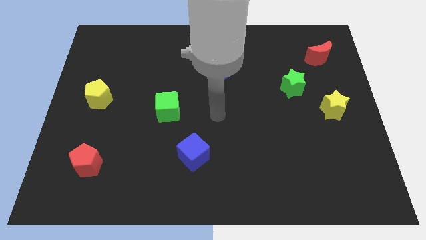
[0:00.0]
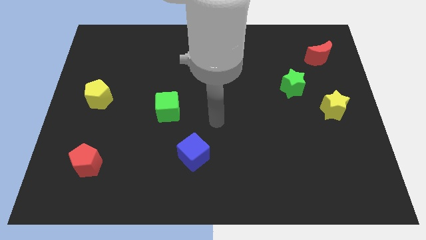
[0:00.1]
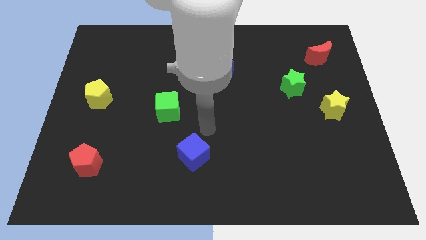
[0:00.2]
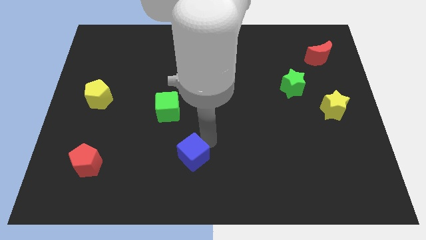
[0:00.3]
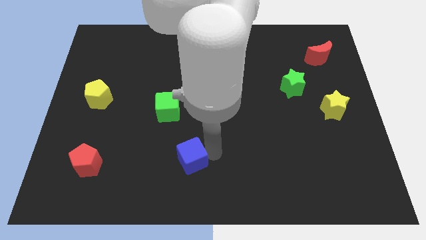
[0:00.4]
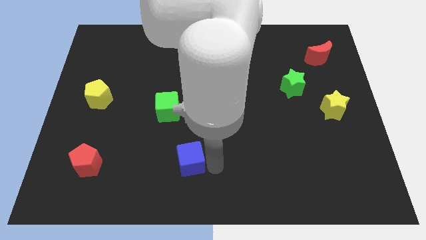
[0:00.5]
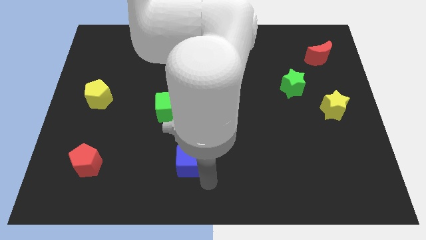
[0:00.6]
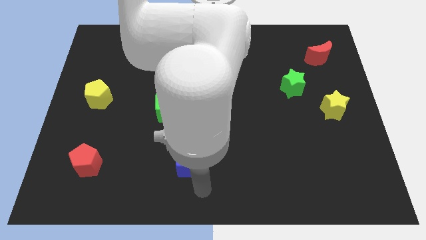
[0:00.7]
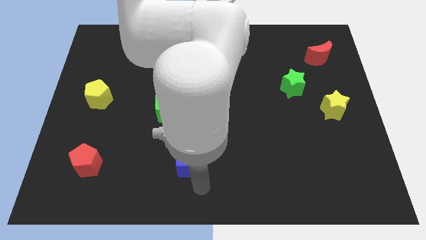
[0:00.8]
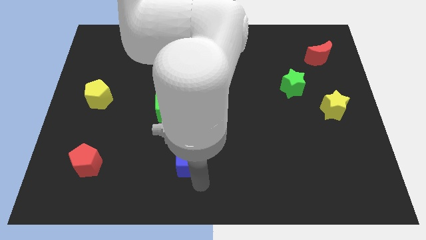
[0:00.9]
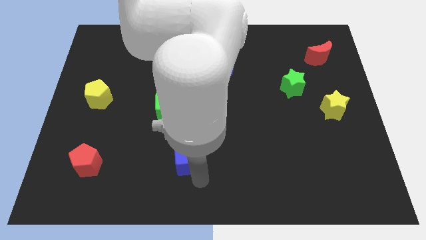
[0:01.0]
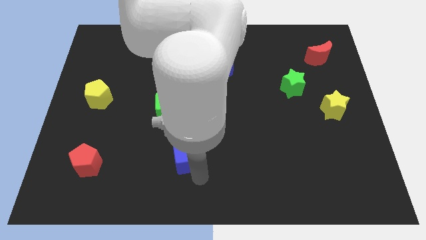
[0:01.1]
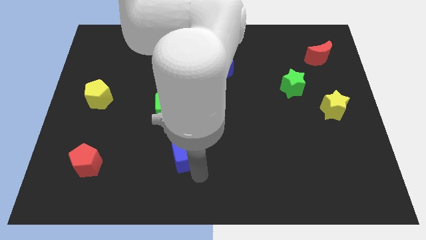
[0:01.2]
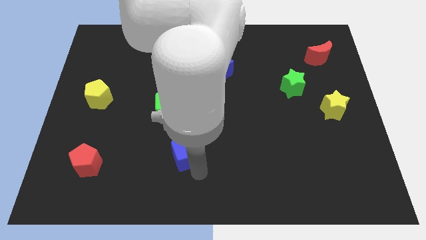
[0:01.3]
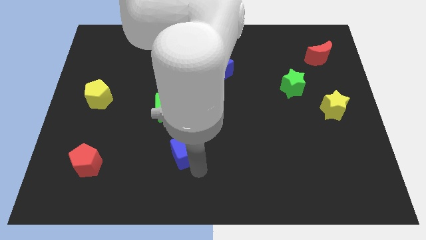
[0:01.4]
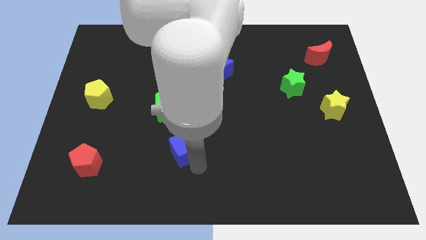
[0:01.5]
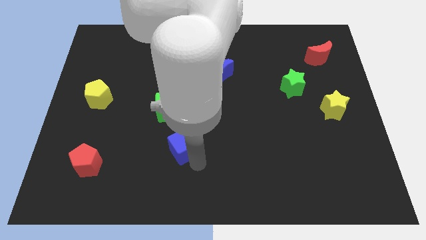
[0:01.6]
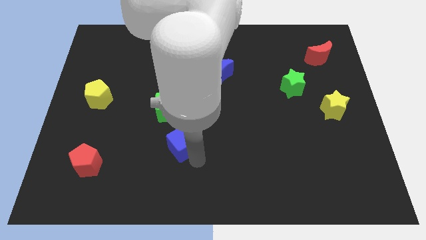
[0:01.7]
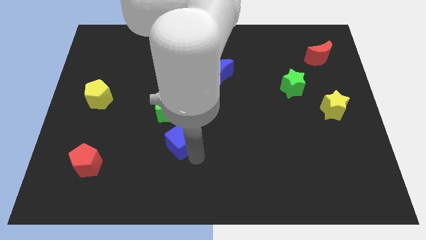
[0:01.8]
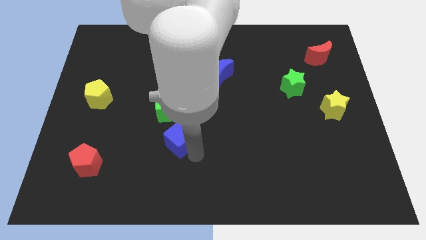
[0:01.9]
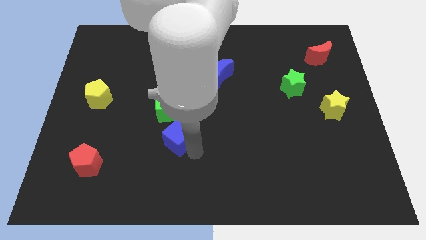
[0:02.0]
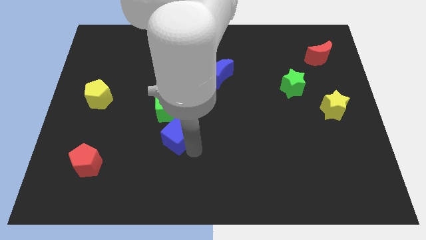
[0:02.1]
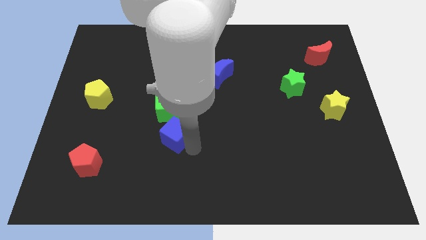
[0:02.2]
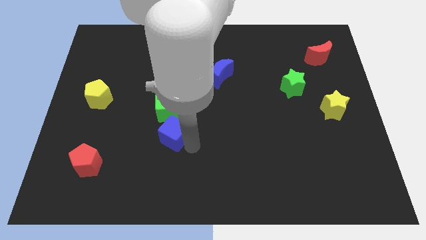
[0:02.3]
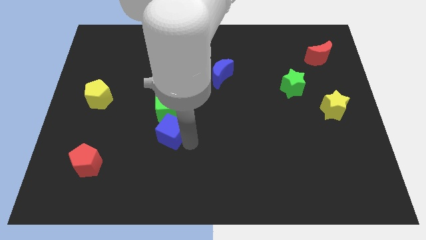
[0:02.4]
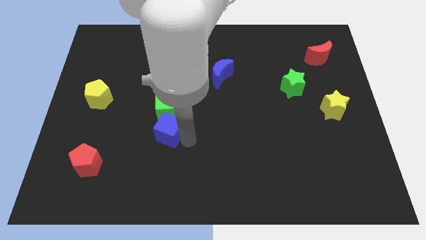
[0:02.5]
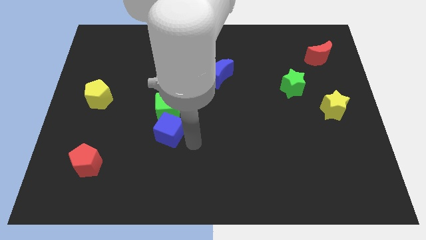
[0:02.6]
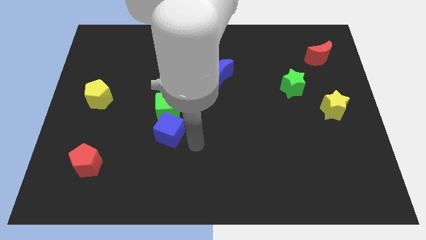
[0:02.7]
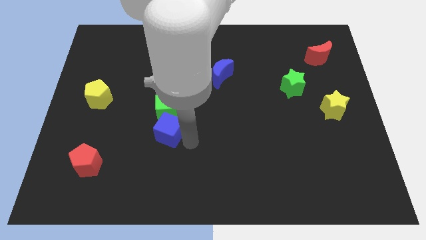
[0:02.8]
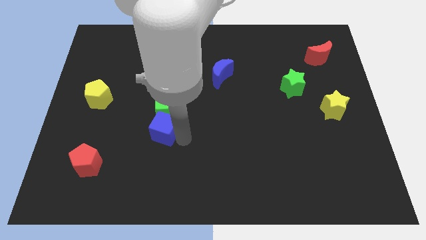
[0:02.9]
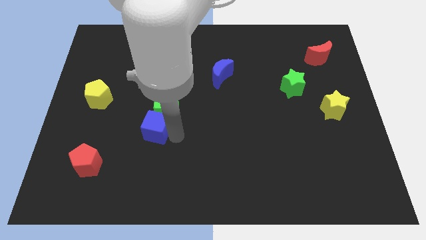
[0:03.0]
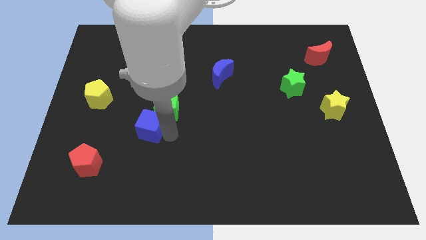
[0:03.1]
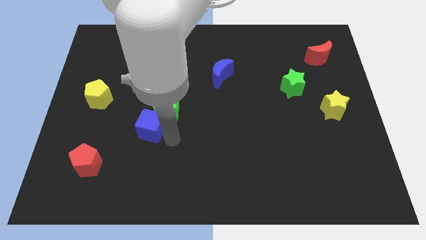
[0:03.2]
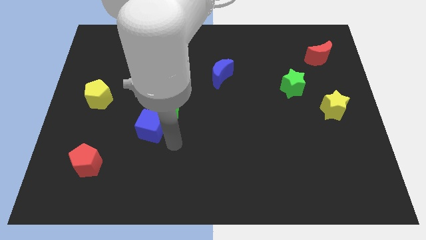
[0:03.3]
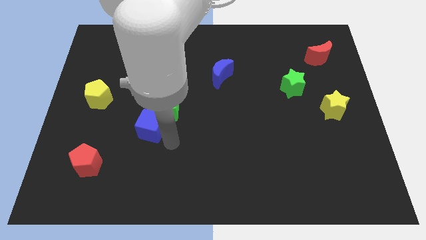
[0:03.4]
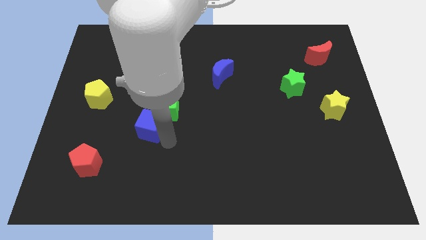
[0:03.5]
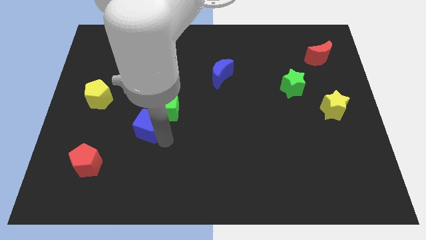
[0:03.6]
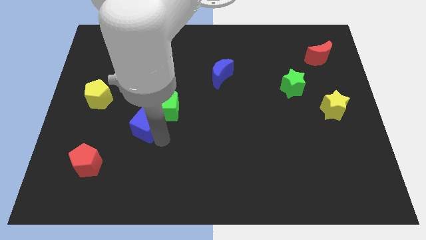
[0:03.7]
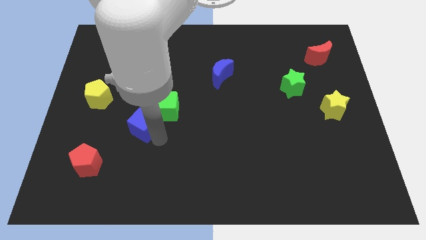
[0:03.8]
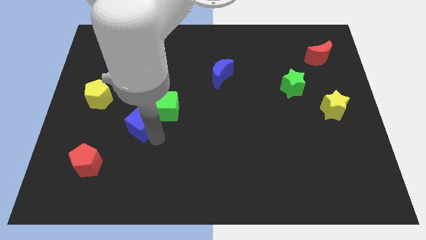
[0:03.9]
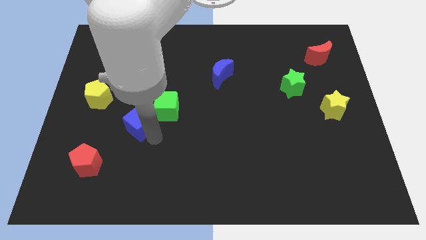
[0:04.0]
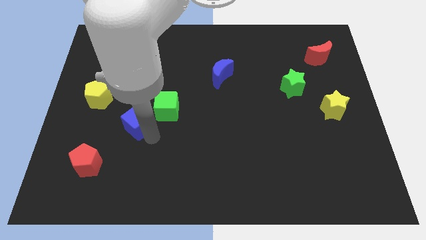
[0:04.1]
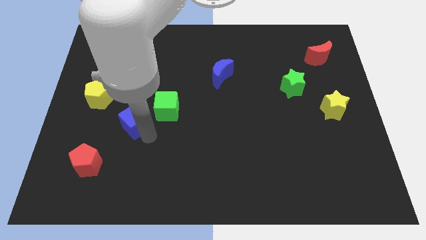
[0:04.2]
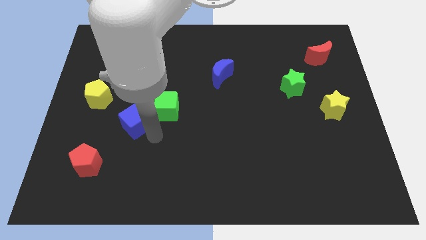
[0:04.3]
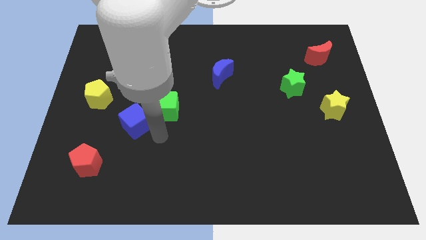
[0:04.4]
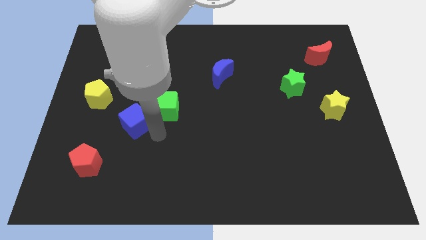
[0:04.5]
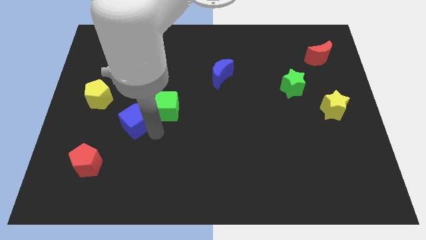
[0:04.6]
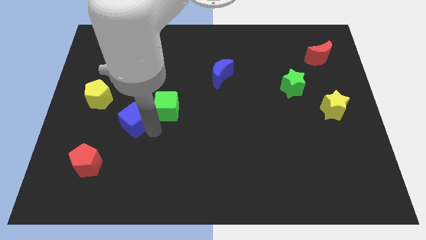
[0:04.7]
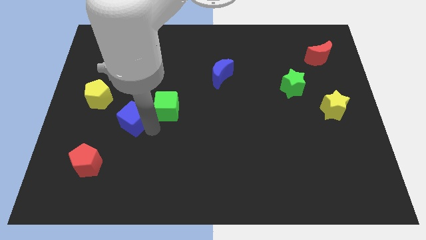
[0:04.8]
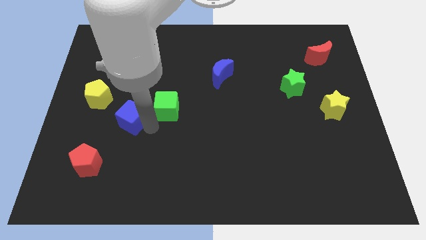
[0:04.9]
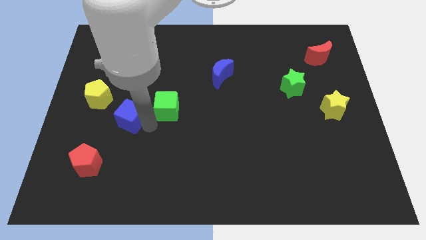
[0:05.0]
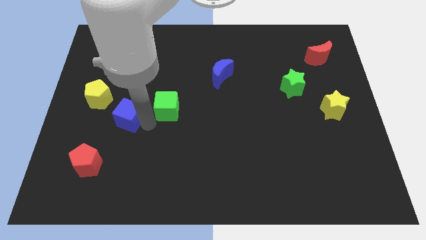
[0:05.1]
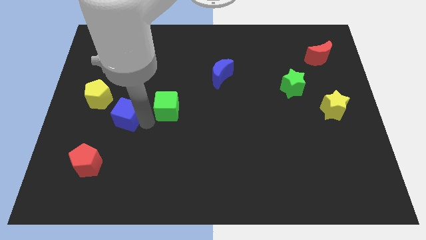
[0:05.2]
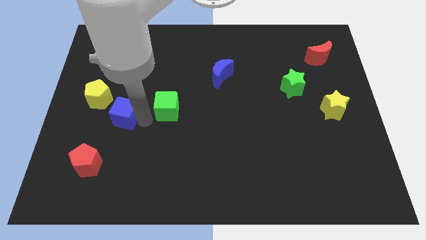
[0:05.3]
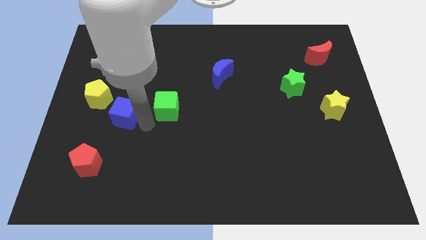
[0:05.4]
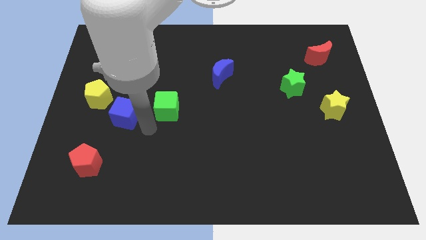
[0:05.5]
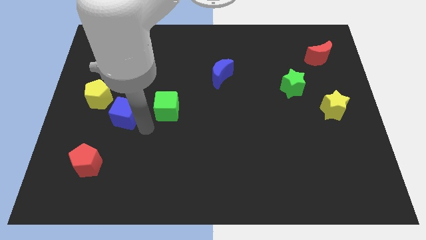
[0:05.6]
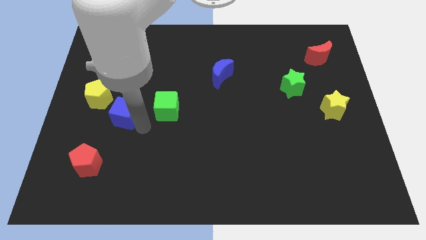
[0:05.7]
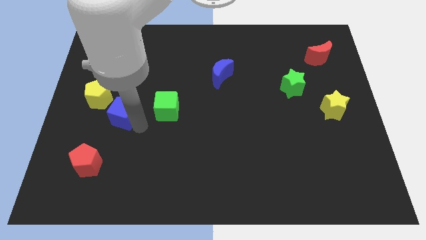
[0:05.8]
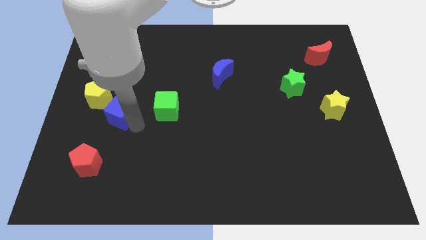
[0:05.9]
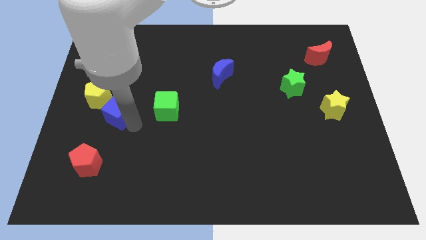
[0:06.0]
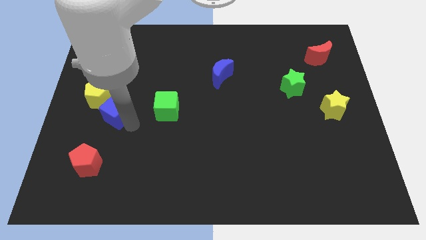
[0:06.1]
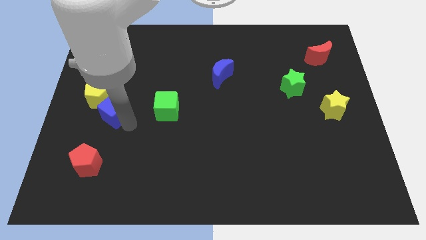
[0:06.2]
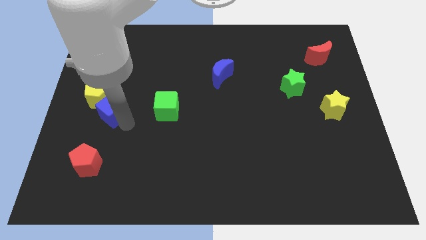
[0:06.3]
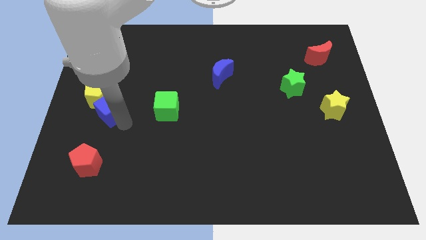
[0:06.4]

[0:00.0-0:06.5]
put the blue cube next to the yellow pentagon

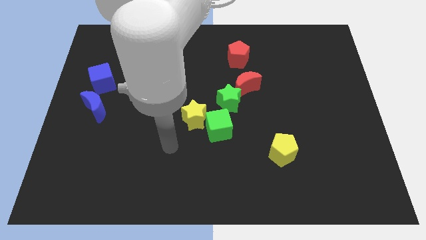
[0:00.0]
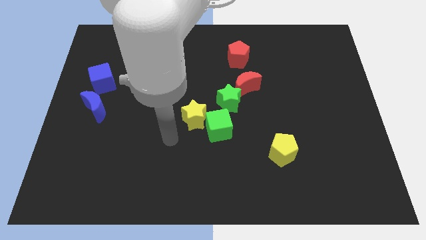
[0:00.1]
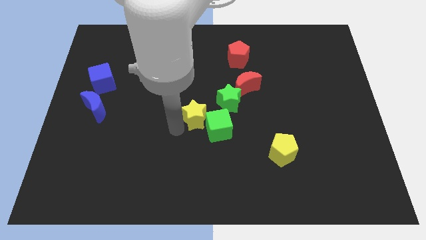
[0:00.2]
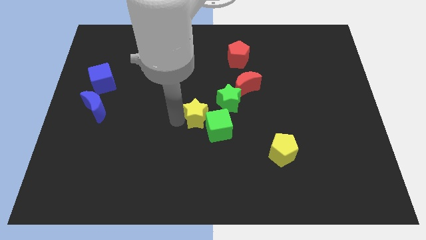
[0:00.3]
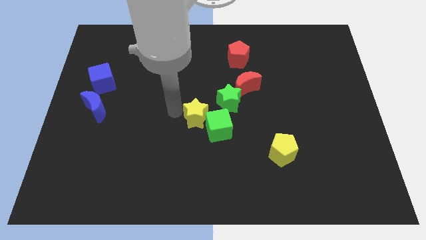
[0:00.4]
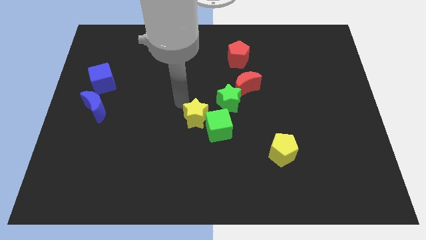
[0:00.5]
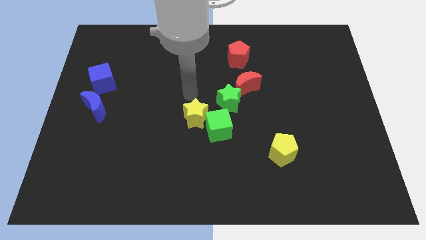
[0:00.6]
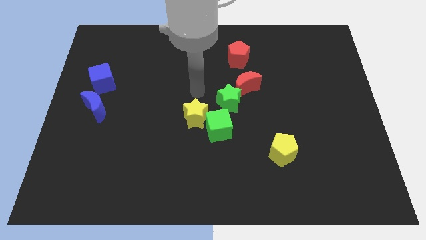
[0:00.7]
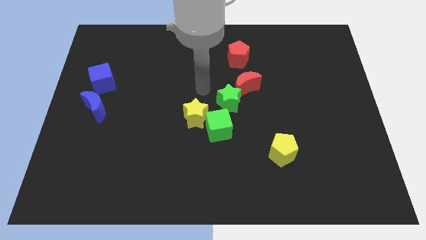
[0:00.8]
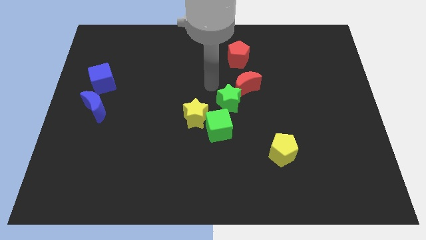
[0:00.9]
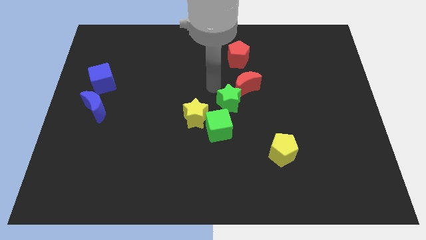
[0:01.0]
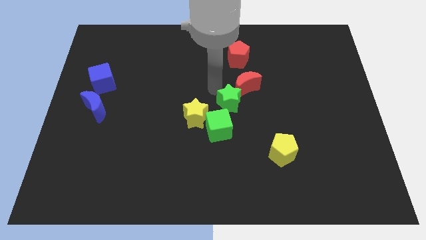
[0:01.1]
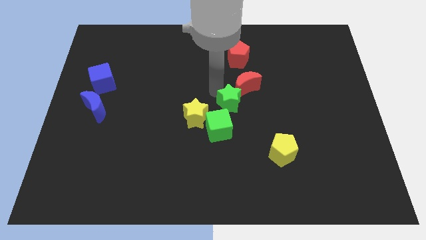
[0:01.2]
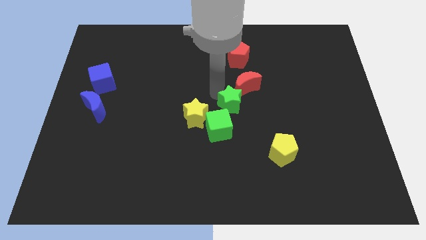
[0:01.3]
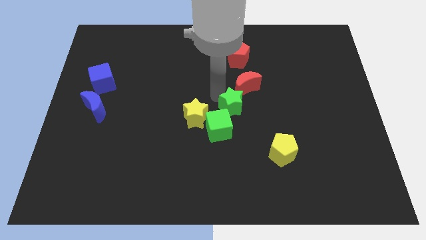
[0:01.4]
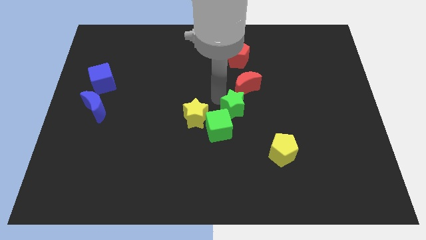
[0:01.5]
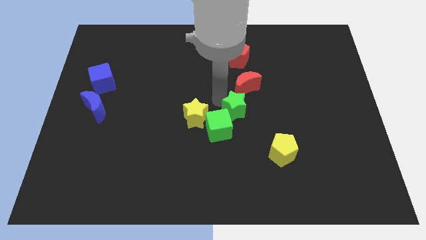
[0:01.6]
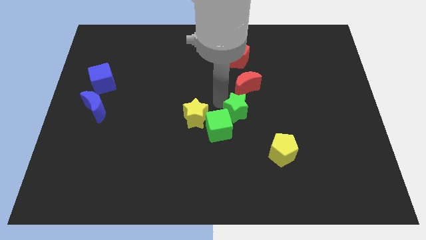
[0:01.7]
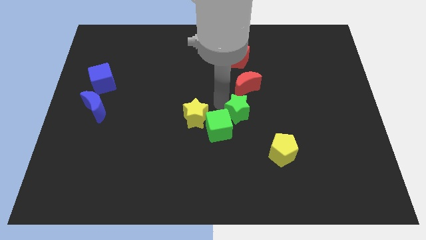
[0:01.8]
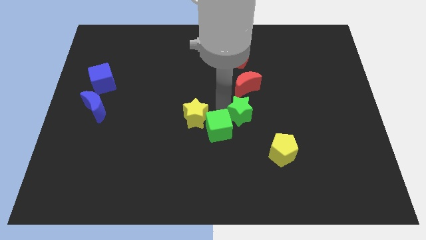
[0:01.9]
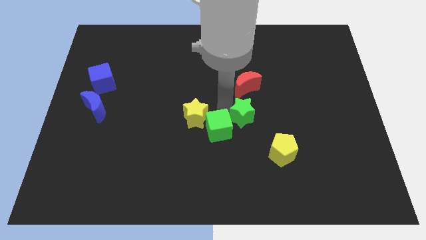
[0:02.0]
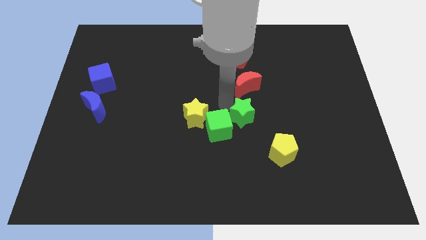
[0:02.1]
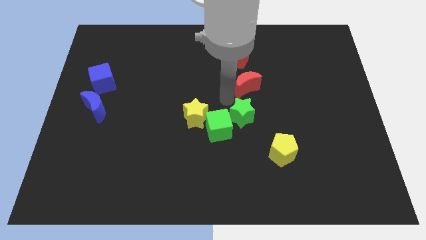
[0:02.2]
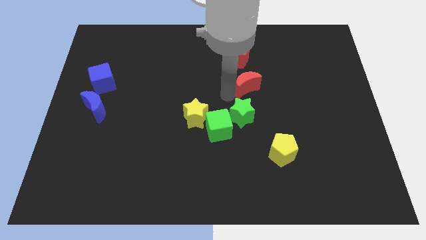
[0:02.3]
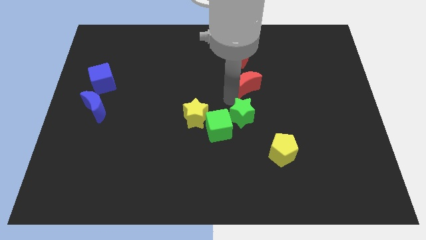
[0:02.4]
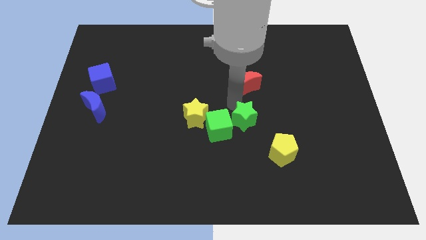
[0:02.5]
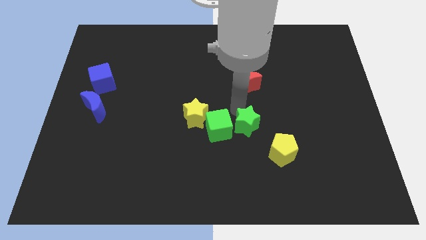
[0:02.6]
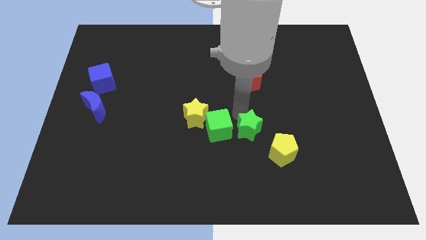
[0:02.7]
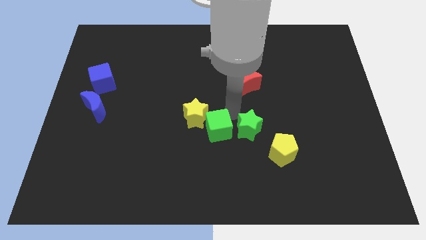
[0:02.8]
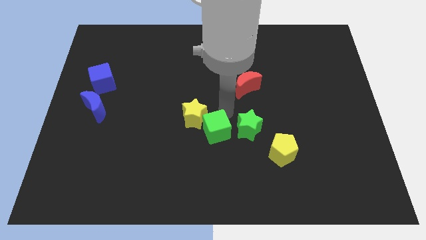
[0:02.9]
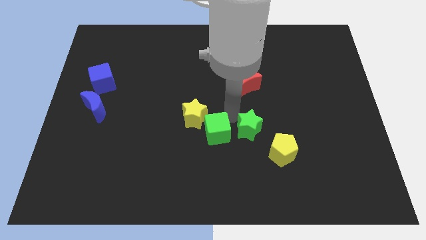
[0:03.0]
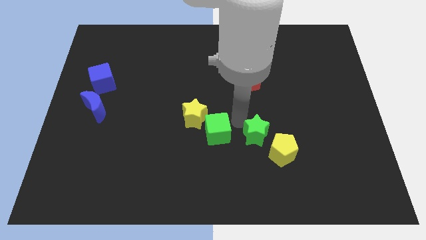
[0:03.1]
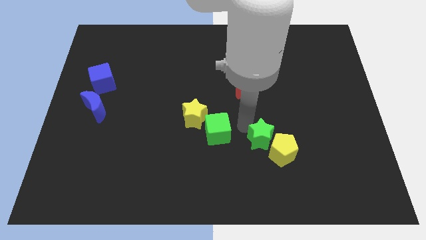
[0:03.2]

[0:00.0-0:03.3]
move the green star close to the yellow pentagon
